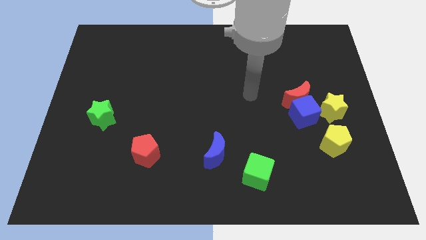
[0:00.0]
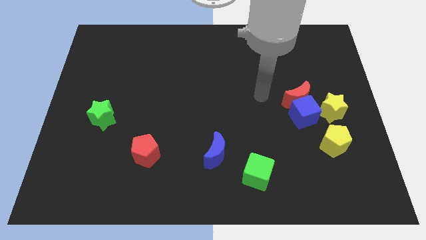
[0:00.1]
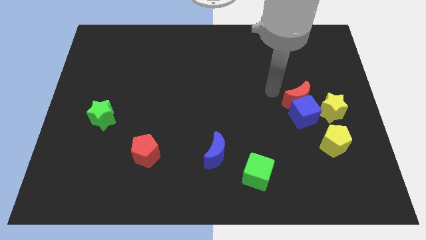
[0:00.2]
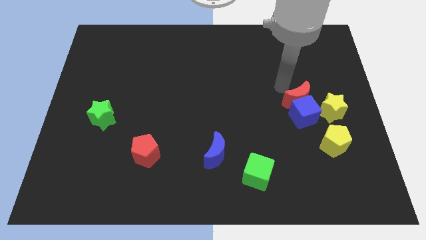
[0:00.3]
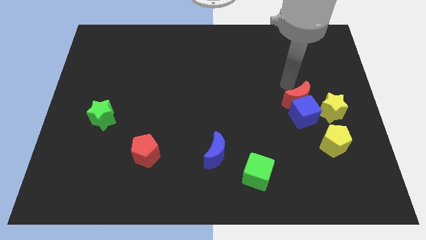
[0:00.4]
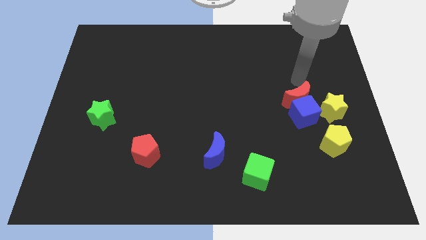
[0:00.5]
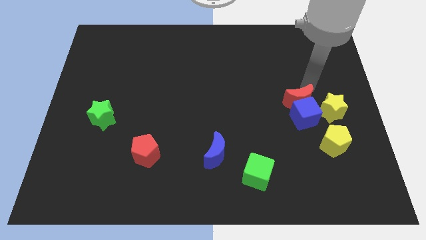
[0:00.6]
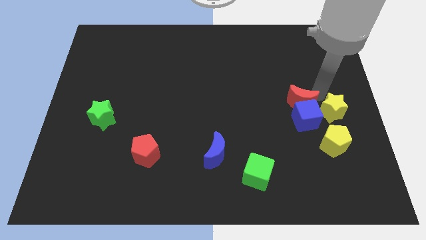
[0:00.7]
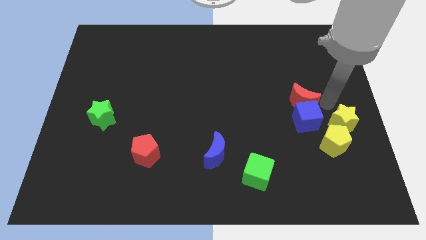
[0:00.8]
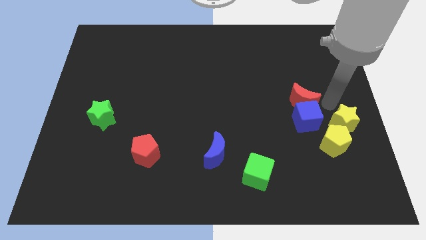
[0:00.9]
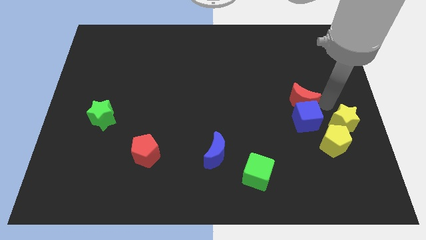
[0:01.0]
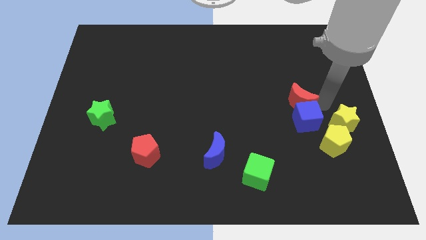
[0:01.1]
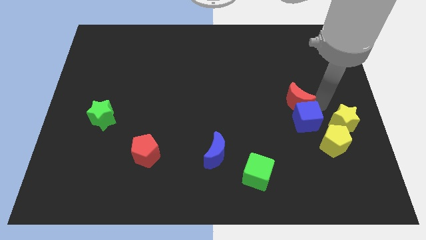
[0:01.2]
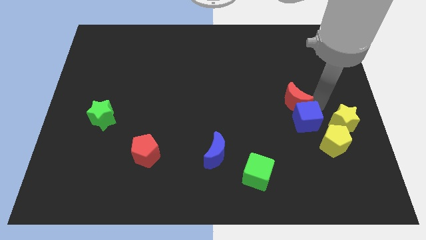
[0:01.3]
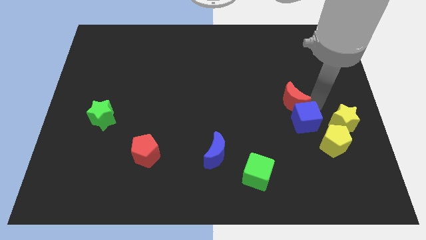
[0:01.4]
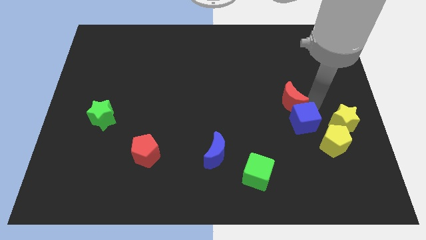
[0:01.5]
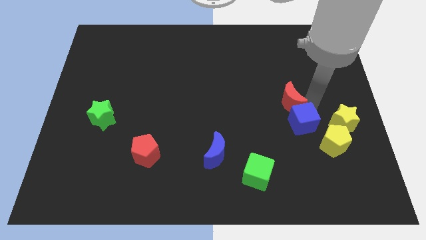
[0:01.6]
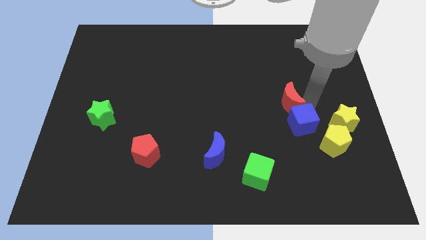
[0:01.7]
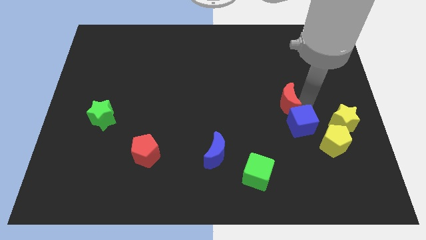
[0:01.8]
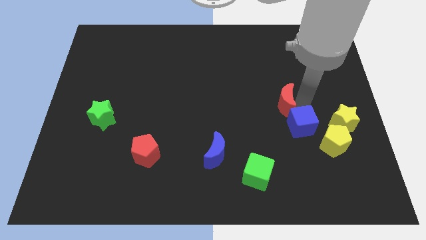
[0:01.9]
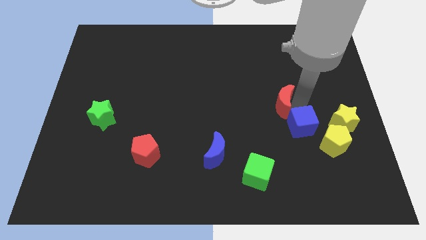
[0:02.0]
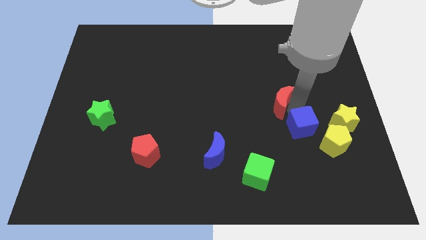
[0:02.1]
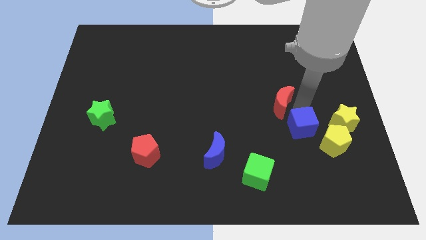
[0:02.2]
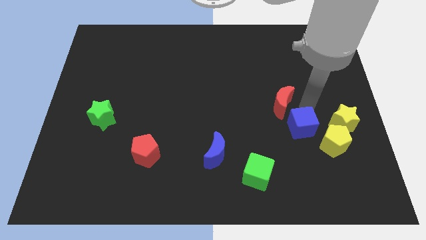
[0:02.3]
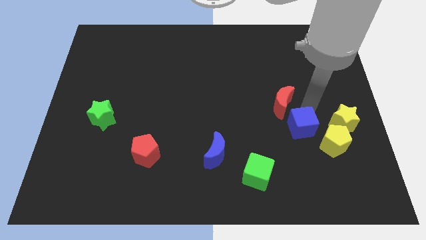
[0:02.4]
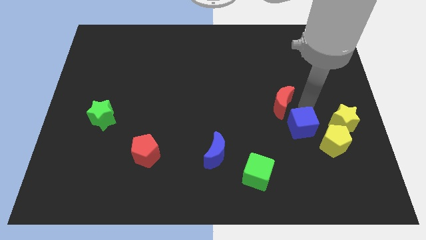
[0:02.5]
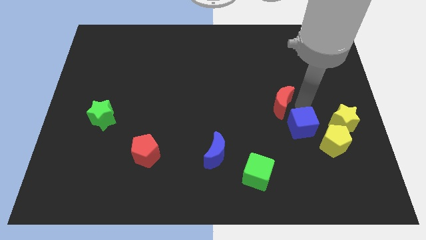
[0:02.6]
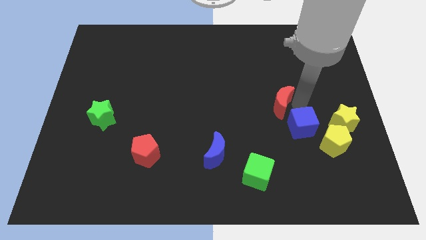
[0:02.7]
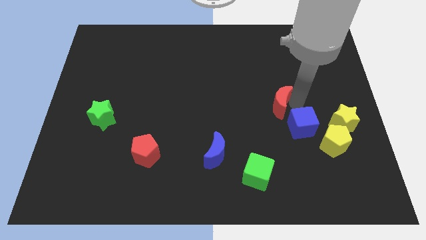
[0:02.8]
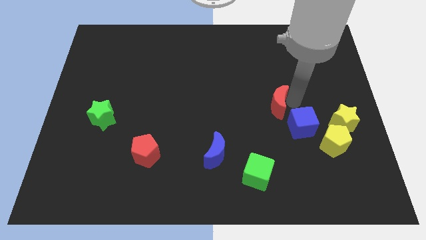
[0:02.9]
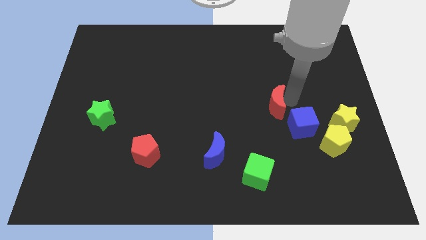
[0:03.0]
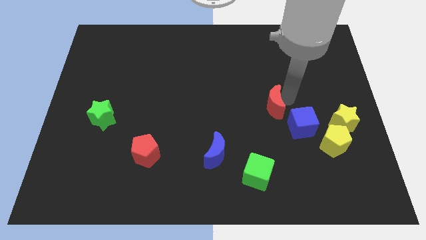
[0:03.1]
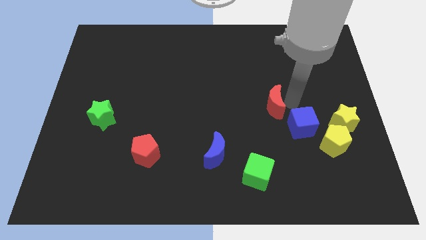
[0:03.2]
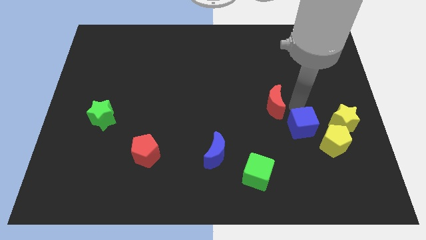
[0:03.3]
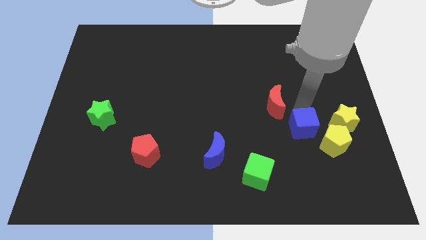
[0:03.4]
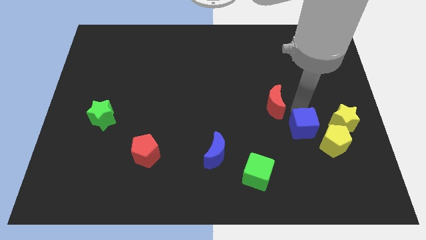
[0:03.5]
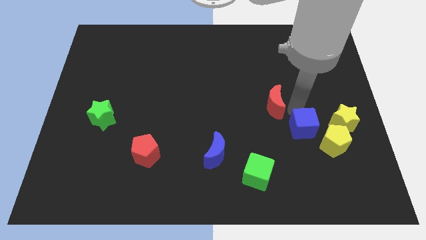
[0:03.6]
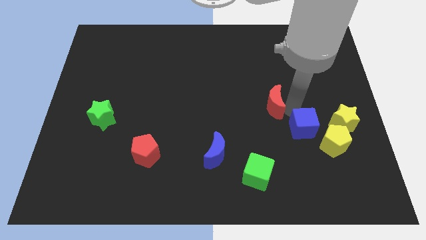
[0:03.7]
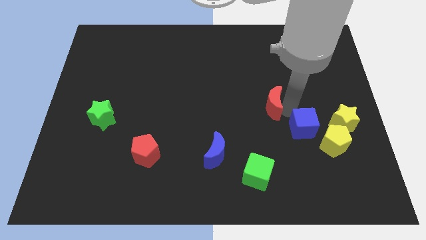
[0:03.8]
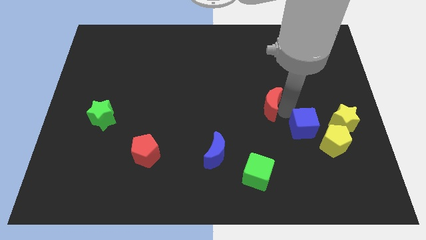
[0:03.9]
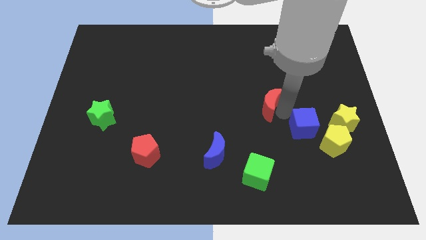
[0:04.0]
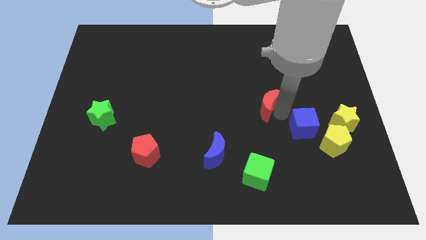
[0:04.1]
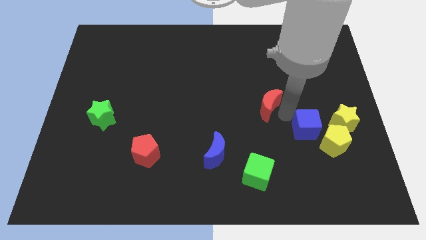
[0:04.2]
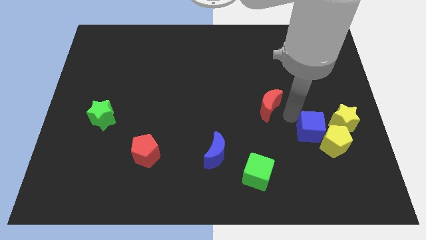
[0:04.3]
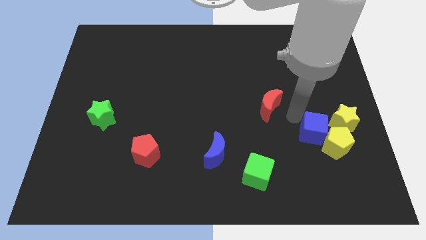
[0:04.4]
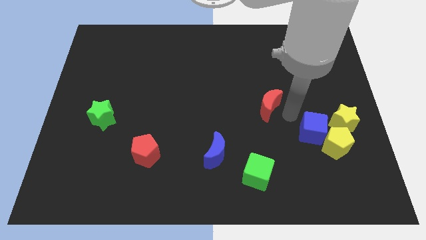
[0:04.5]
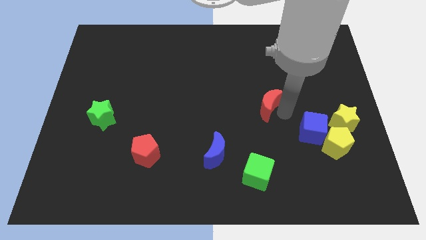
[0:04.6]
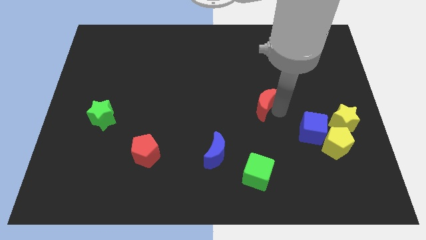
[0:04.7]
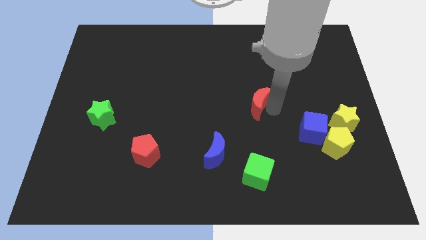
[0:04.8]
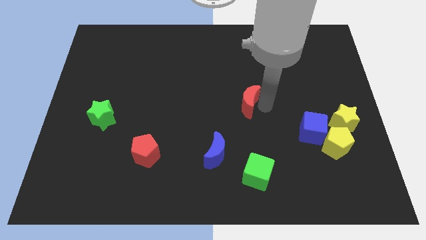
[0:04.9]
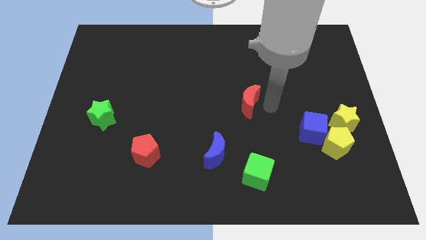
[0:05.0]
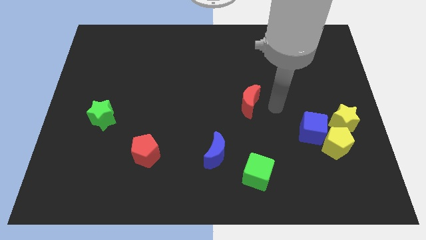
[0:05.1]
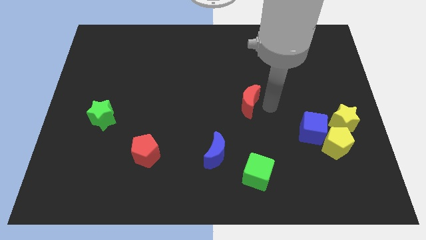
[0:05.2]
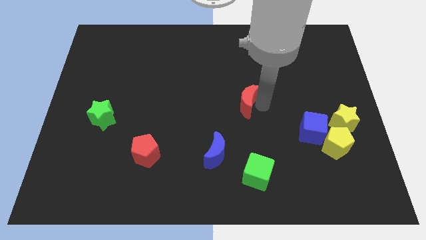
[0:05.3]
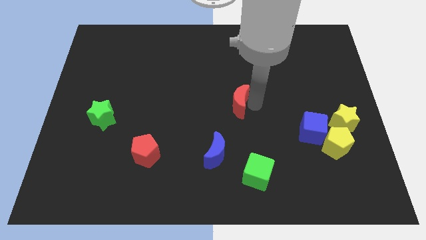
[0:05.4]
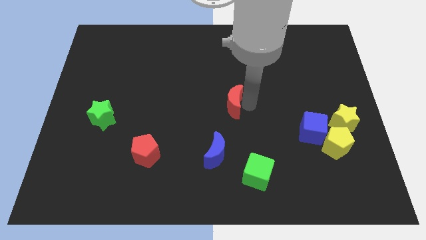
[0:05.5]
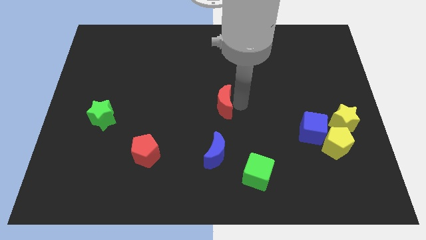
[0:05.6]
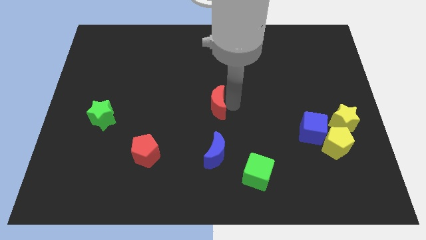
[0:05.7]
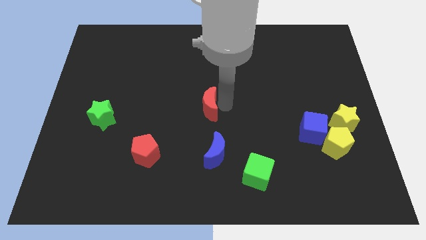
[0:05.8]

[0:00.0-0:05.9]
push the red moon left

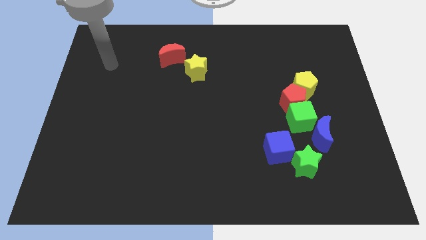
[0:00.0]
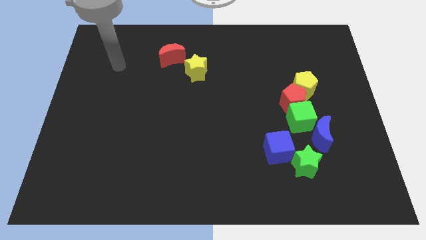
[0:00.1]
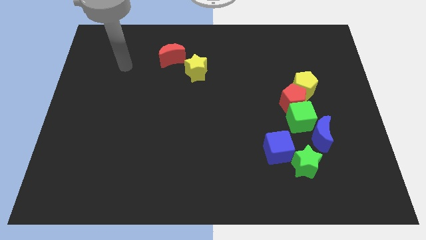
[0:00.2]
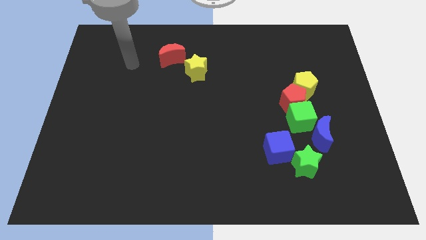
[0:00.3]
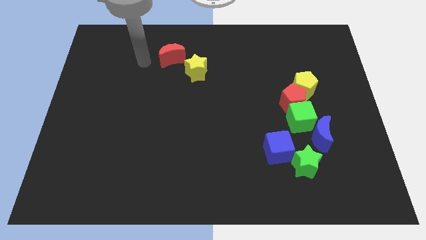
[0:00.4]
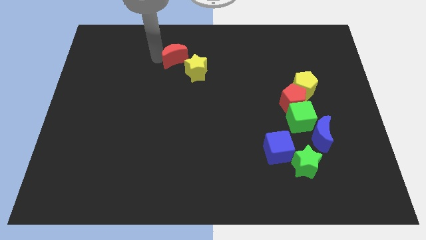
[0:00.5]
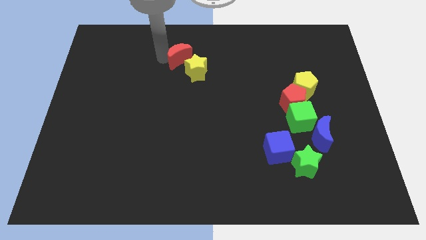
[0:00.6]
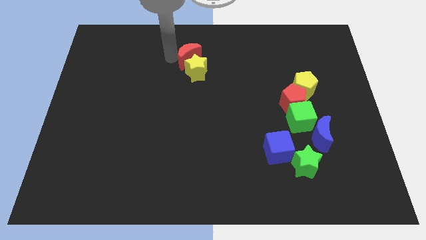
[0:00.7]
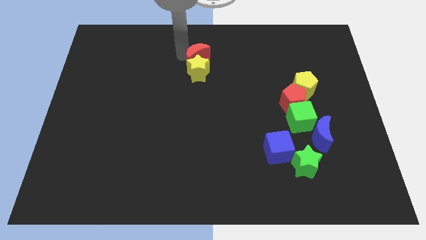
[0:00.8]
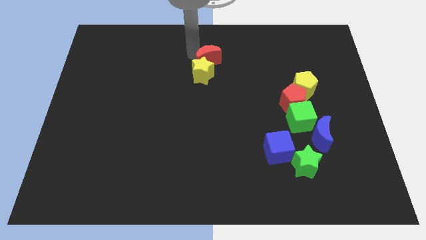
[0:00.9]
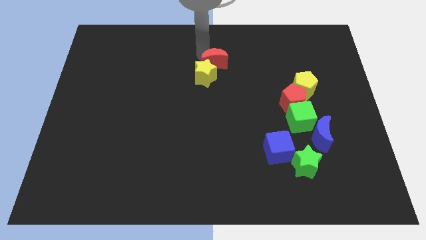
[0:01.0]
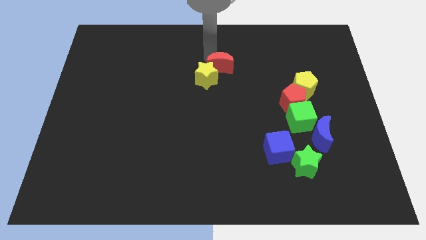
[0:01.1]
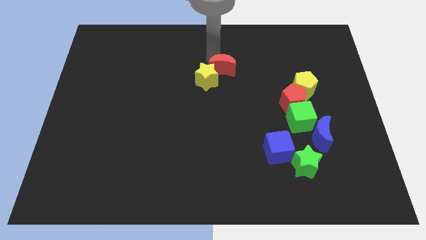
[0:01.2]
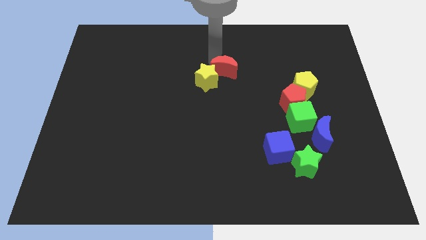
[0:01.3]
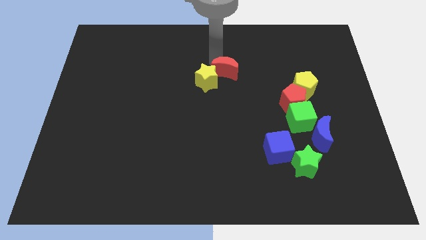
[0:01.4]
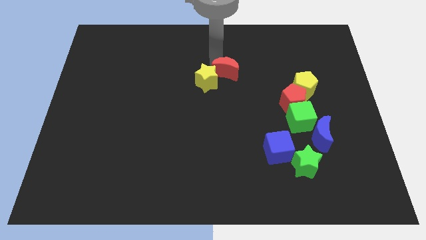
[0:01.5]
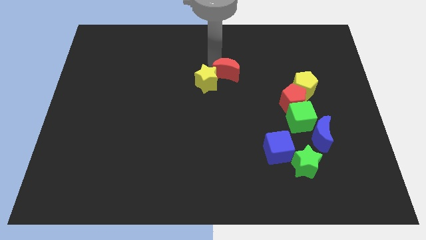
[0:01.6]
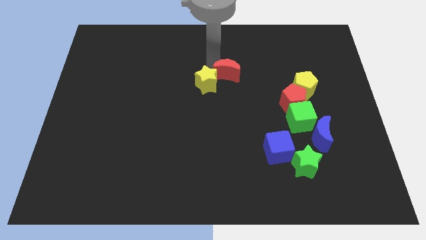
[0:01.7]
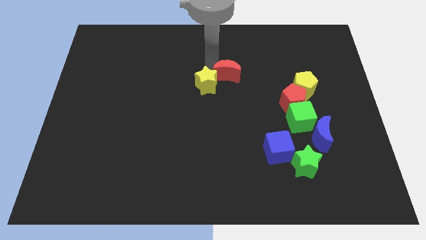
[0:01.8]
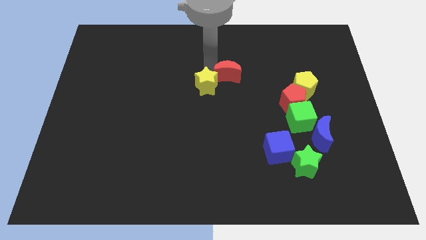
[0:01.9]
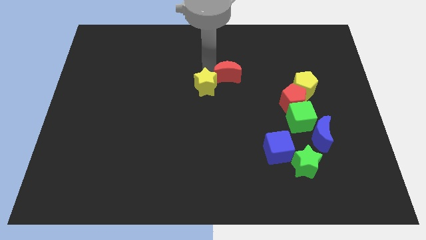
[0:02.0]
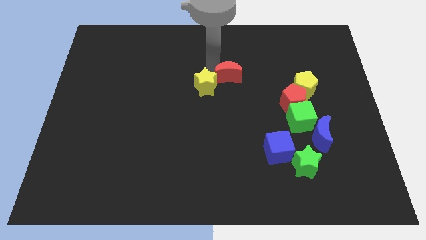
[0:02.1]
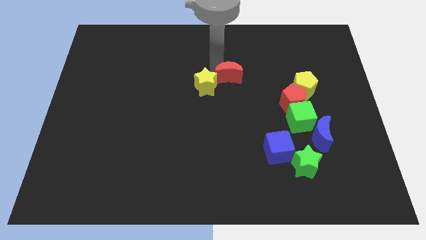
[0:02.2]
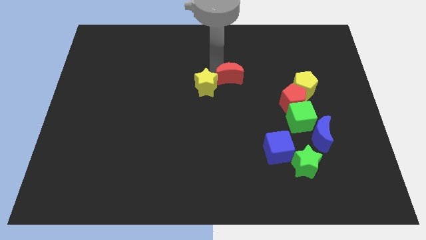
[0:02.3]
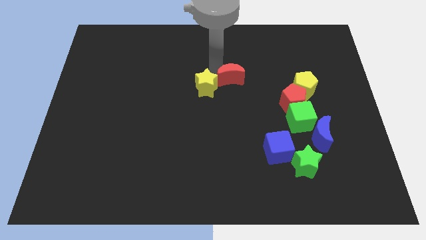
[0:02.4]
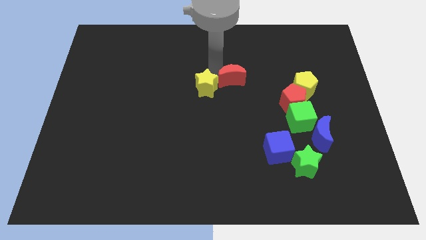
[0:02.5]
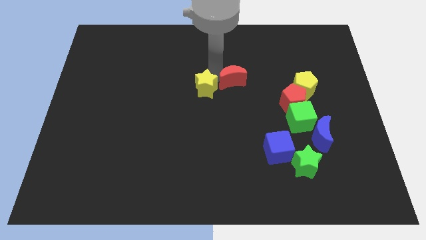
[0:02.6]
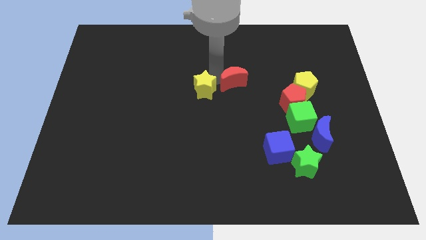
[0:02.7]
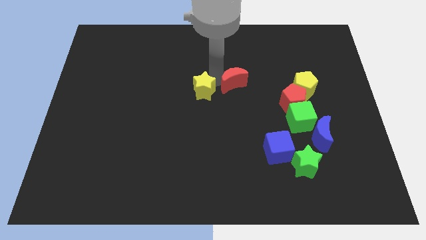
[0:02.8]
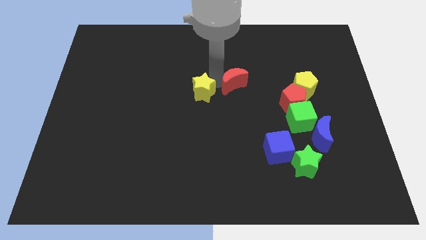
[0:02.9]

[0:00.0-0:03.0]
slightly move the yellow star downwards
